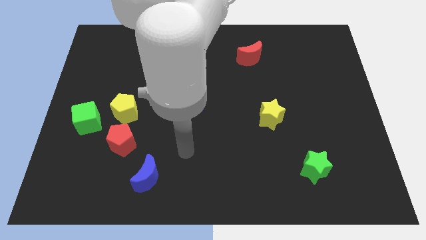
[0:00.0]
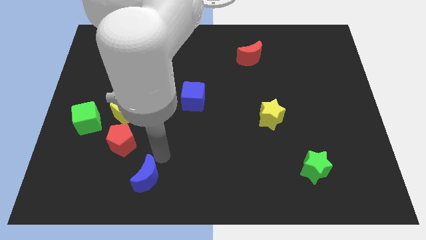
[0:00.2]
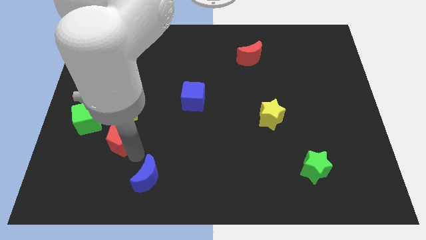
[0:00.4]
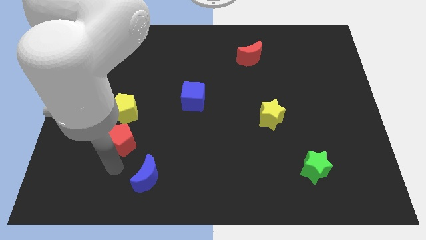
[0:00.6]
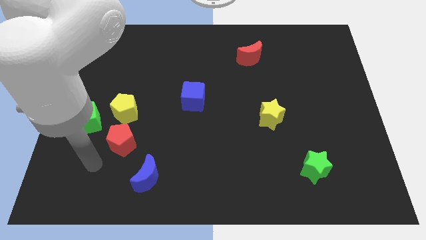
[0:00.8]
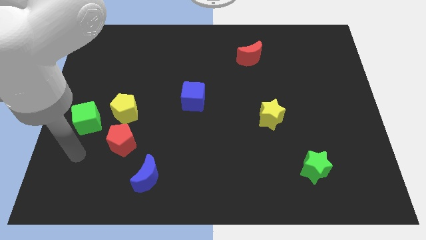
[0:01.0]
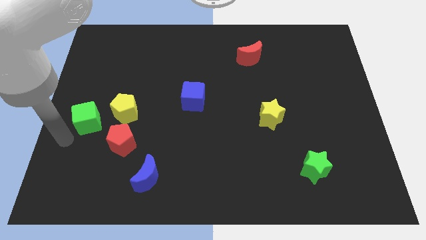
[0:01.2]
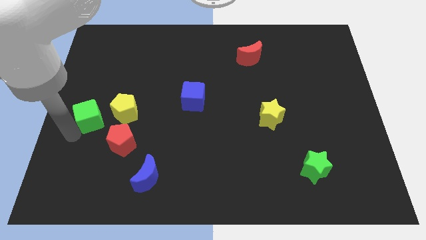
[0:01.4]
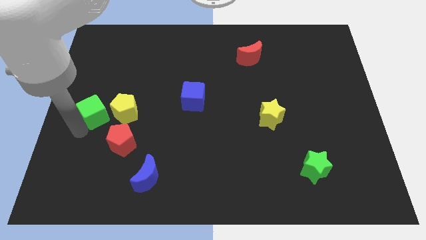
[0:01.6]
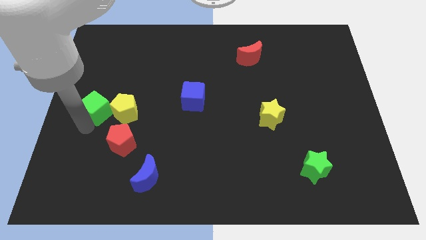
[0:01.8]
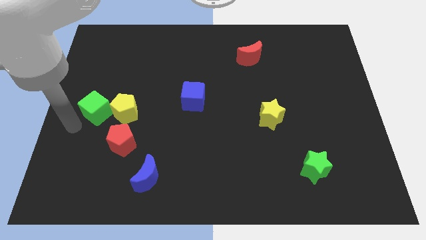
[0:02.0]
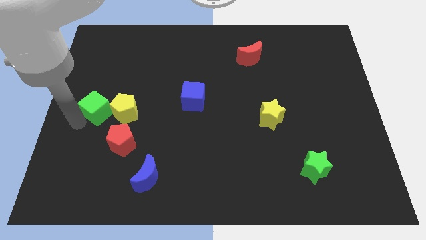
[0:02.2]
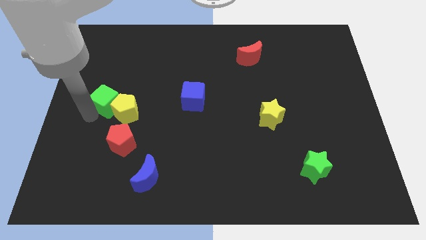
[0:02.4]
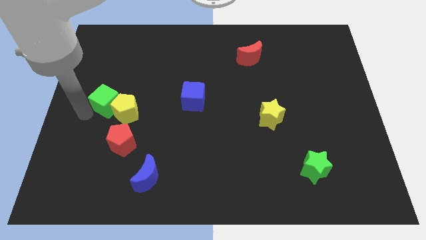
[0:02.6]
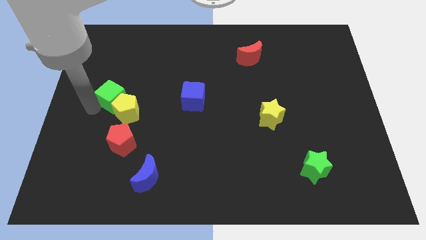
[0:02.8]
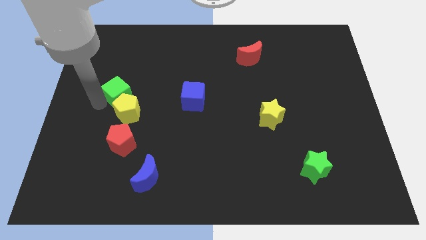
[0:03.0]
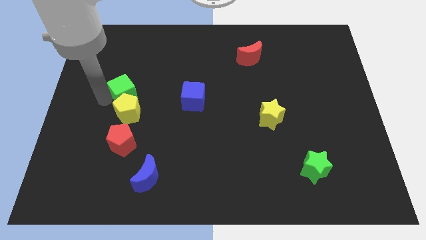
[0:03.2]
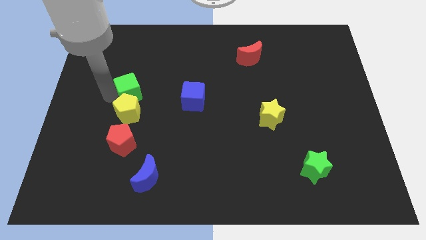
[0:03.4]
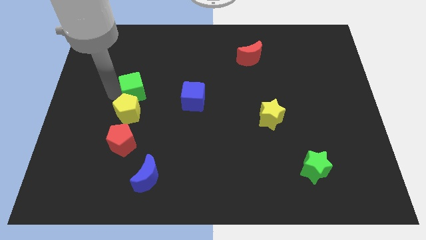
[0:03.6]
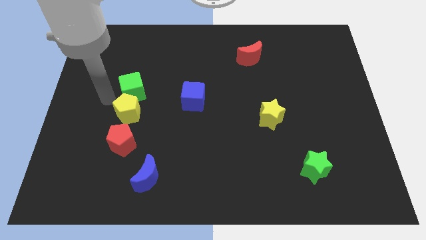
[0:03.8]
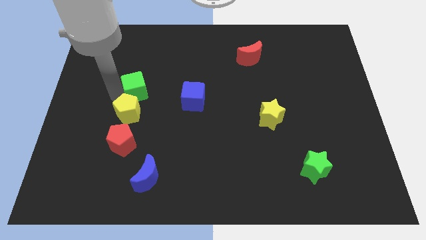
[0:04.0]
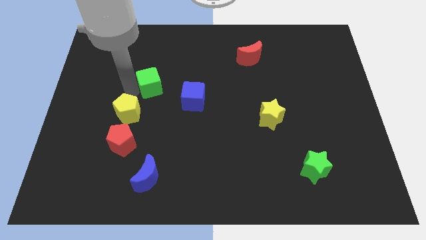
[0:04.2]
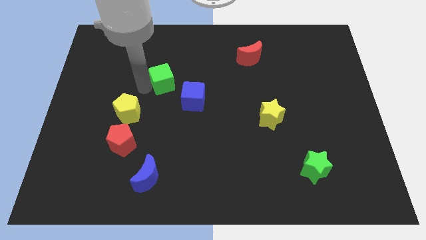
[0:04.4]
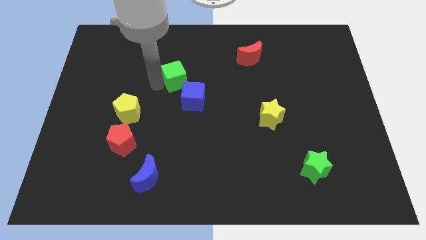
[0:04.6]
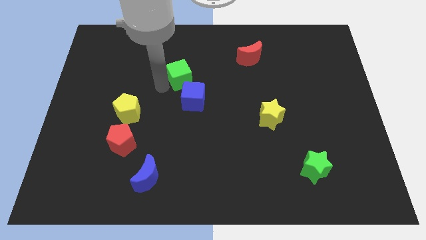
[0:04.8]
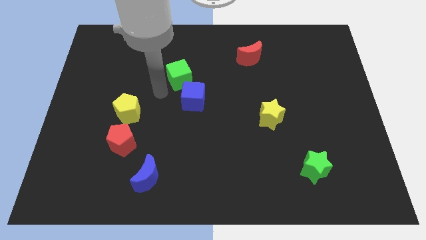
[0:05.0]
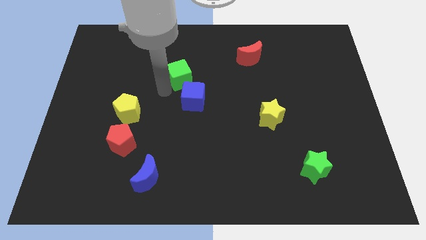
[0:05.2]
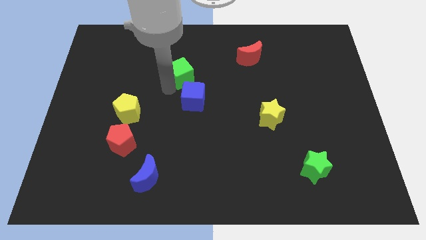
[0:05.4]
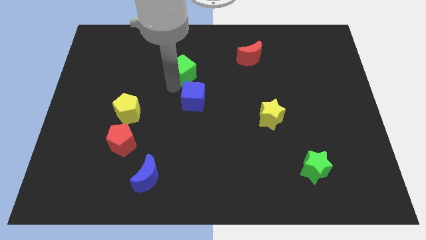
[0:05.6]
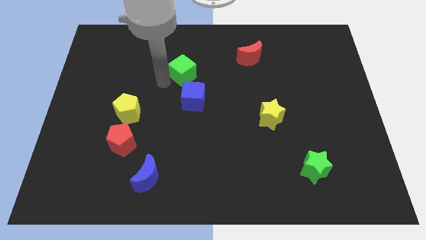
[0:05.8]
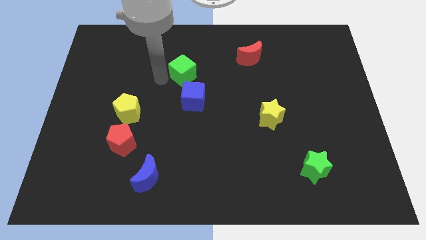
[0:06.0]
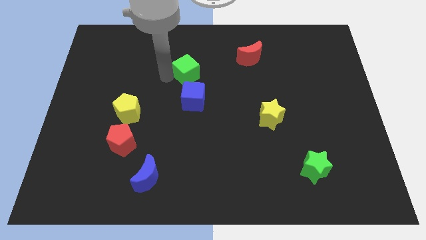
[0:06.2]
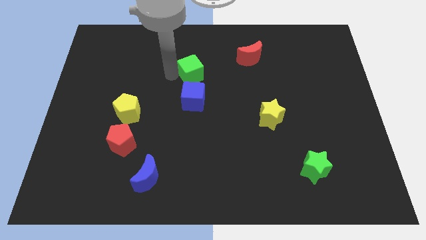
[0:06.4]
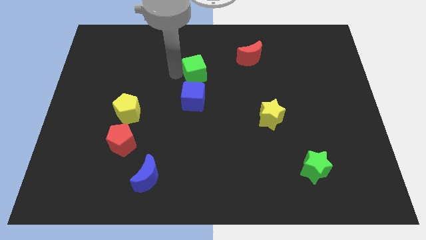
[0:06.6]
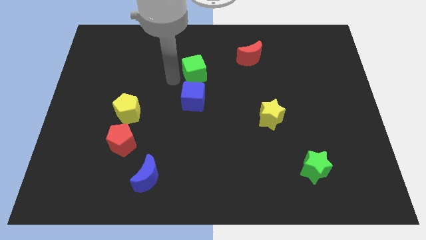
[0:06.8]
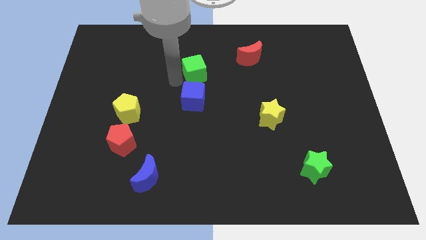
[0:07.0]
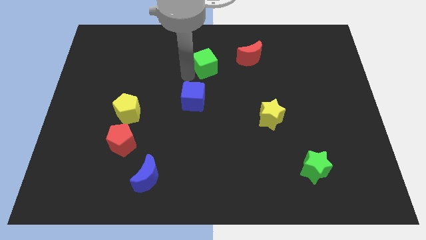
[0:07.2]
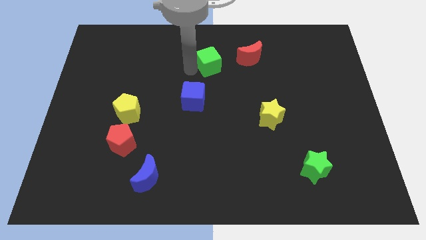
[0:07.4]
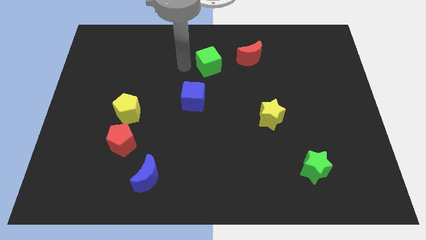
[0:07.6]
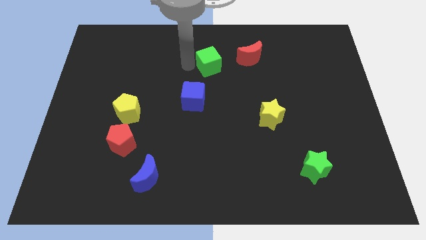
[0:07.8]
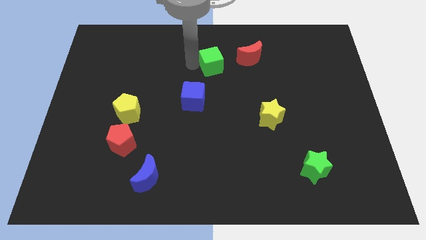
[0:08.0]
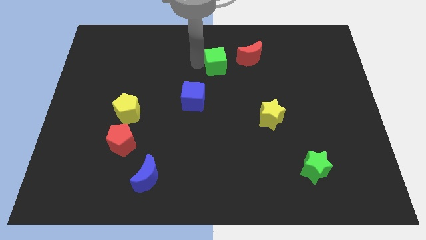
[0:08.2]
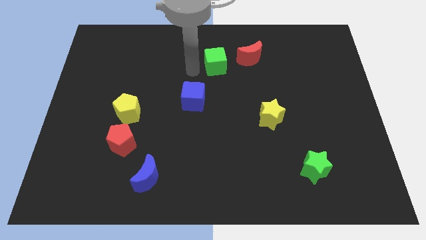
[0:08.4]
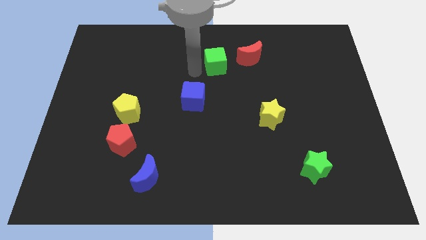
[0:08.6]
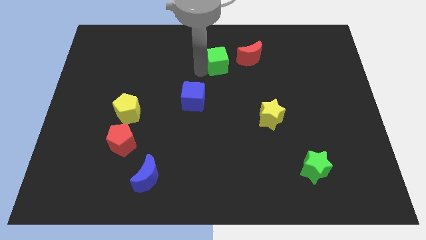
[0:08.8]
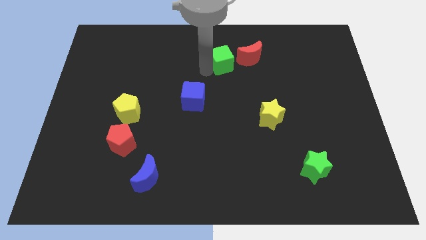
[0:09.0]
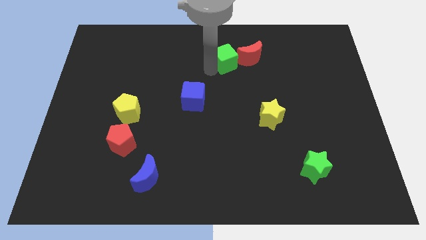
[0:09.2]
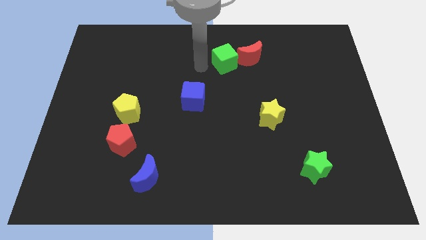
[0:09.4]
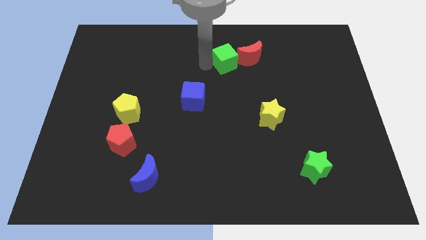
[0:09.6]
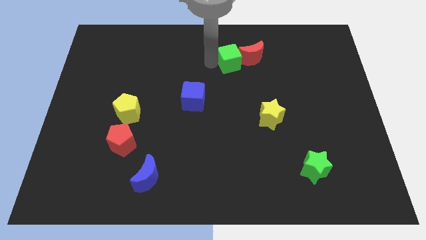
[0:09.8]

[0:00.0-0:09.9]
move the green cube next to the red moon

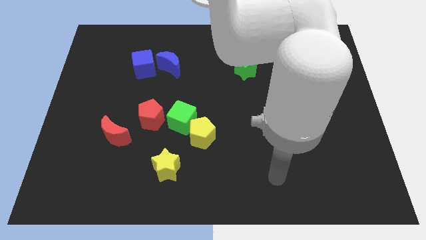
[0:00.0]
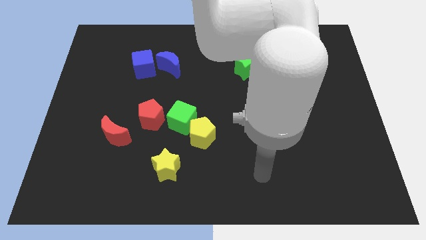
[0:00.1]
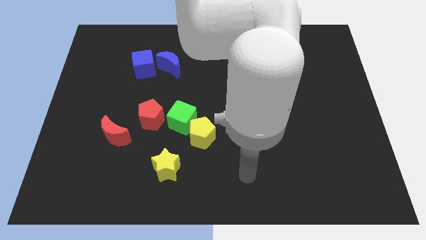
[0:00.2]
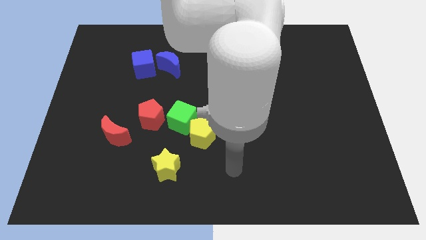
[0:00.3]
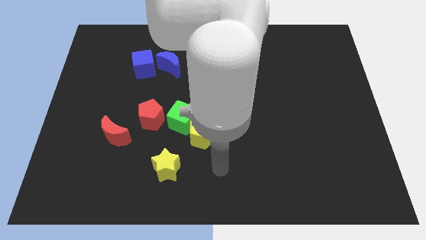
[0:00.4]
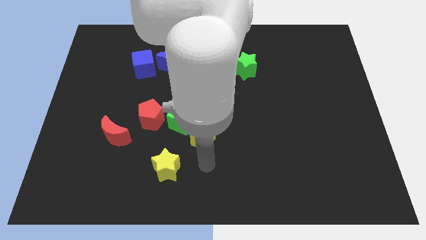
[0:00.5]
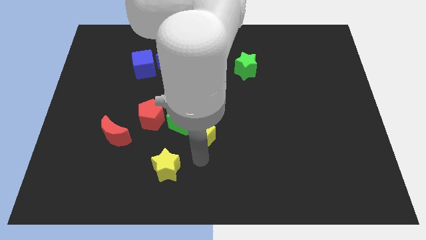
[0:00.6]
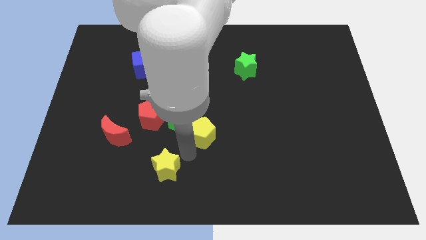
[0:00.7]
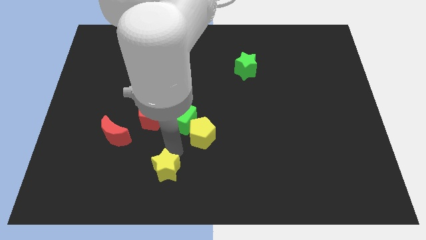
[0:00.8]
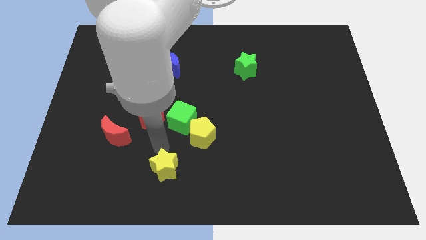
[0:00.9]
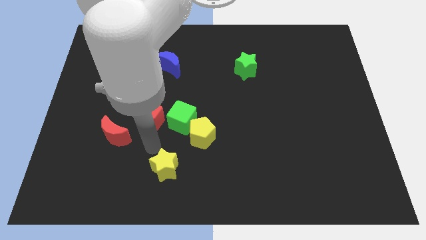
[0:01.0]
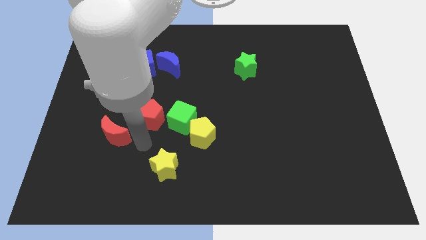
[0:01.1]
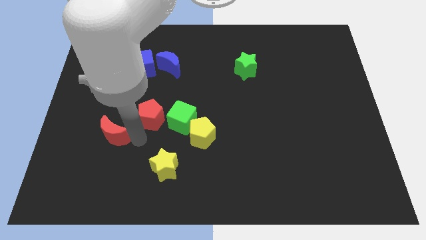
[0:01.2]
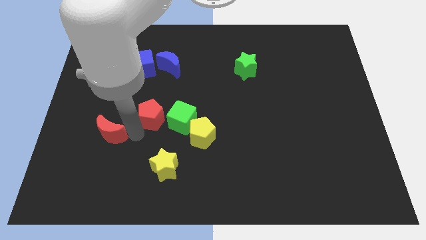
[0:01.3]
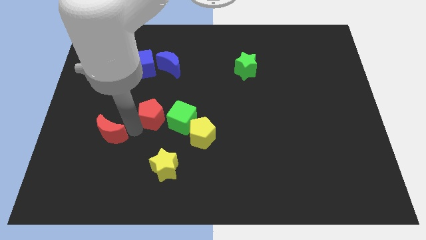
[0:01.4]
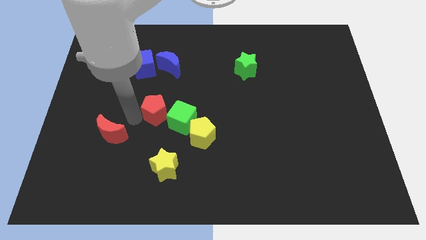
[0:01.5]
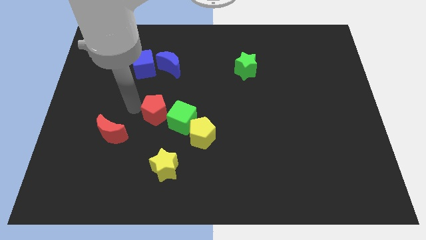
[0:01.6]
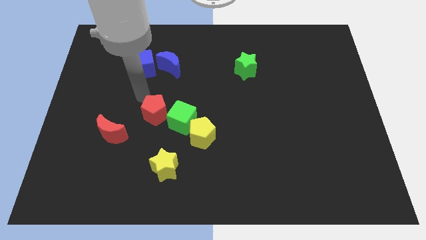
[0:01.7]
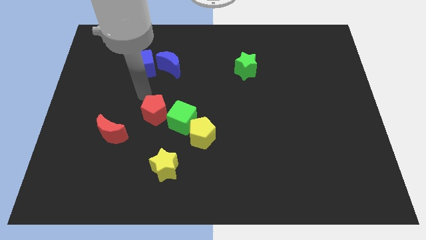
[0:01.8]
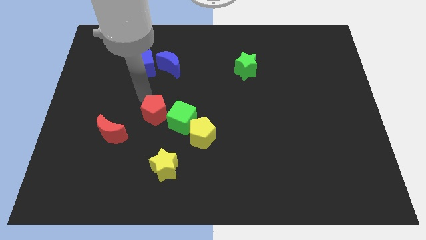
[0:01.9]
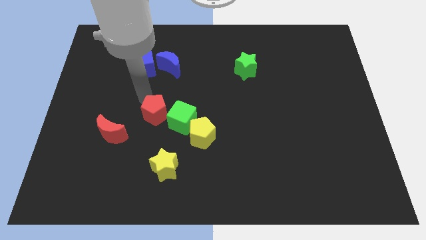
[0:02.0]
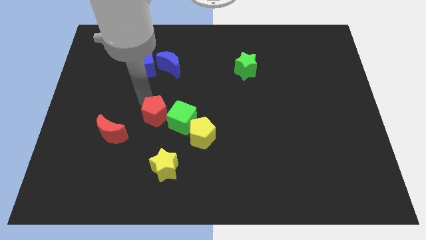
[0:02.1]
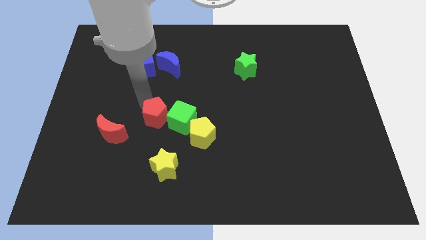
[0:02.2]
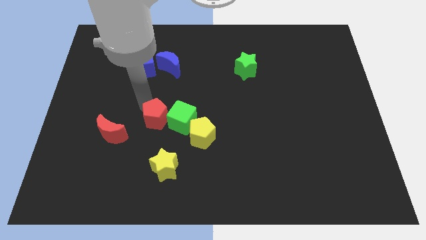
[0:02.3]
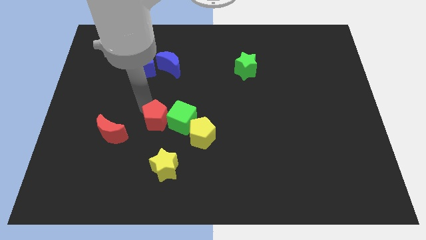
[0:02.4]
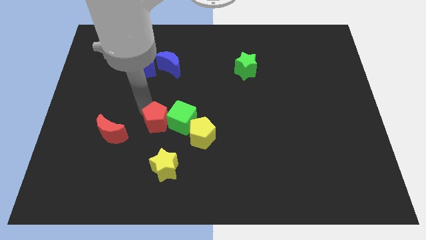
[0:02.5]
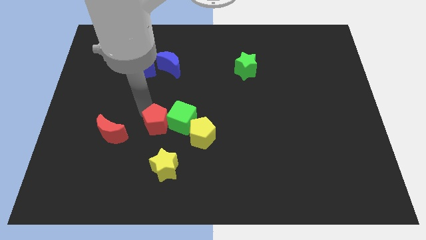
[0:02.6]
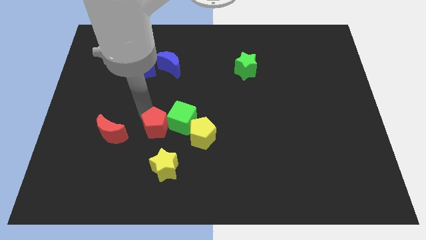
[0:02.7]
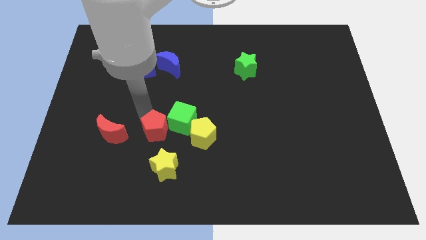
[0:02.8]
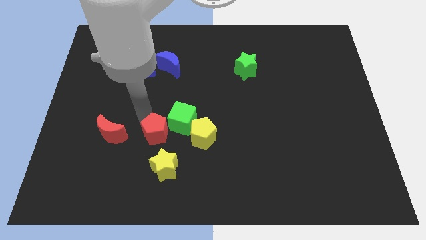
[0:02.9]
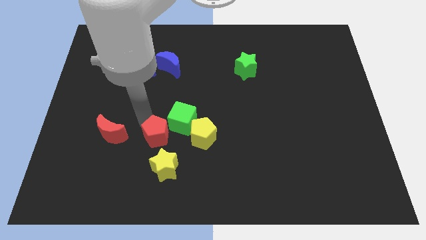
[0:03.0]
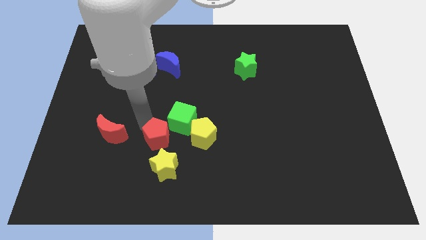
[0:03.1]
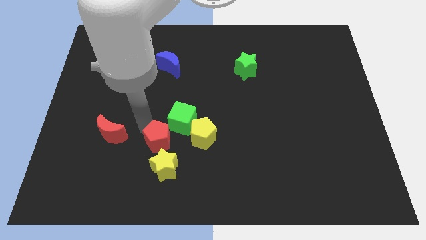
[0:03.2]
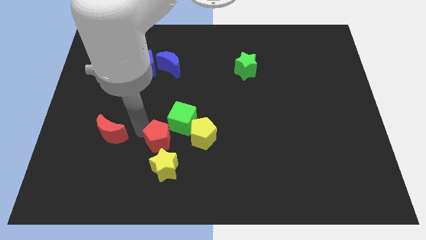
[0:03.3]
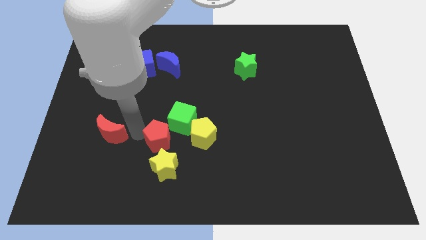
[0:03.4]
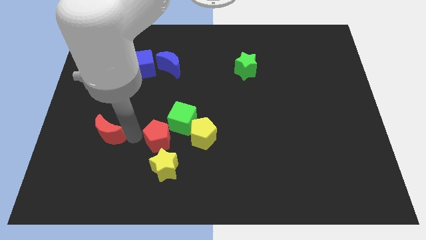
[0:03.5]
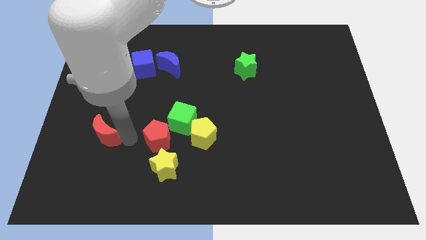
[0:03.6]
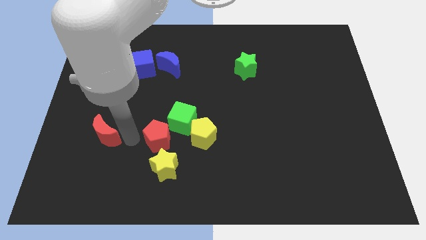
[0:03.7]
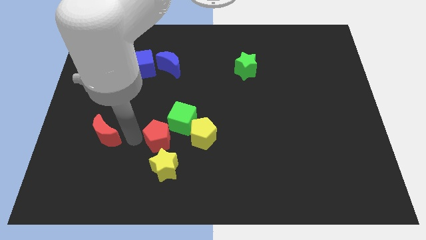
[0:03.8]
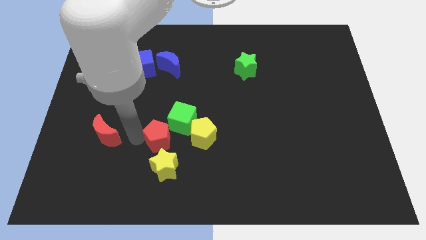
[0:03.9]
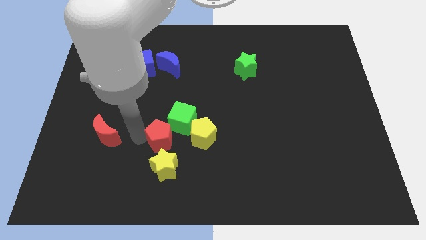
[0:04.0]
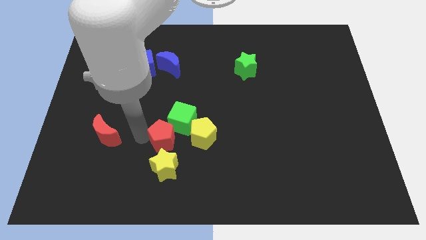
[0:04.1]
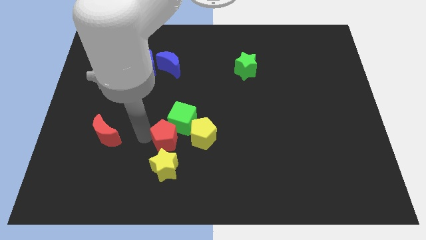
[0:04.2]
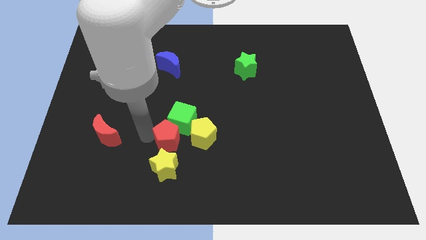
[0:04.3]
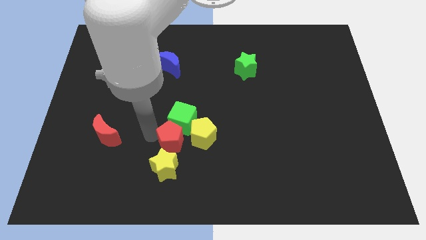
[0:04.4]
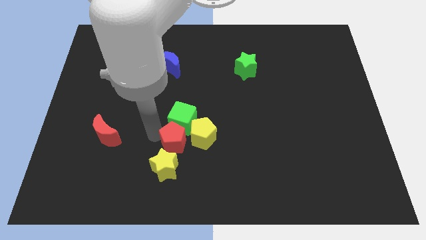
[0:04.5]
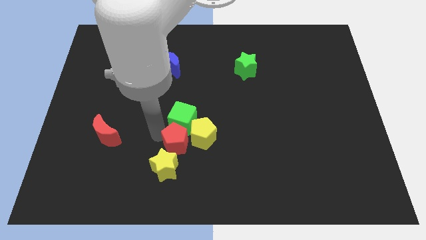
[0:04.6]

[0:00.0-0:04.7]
move the red pentagon to the yellow pentagon
